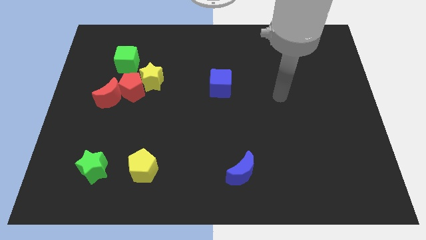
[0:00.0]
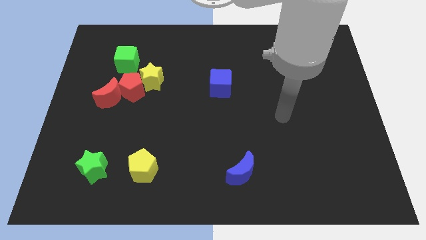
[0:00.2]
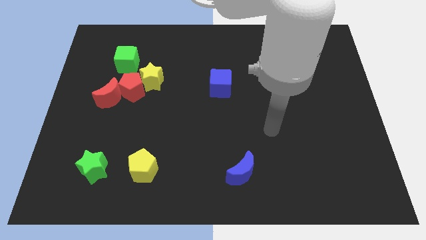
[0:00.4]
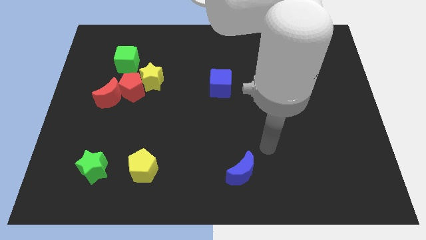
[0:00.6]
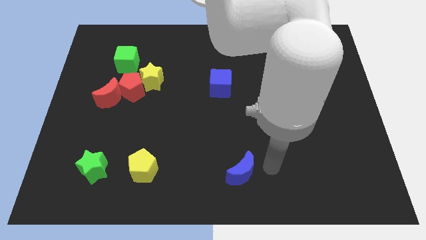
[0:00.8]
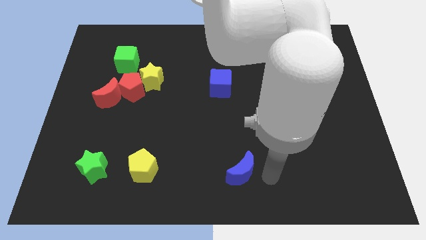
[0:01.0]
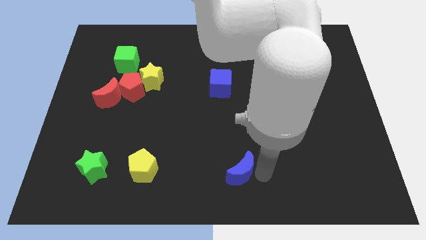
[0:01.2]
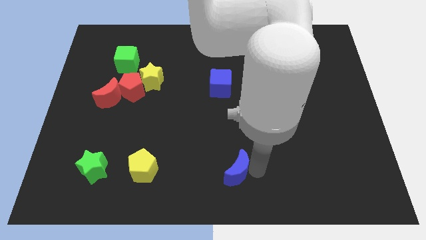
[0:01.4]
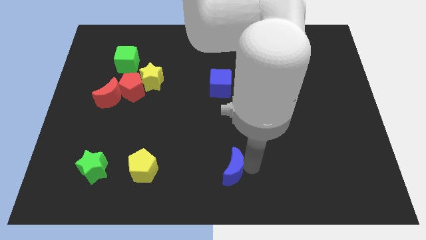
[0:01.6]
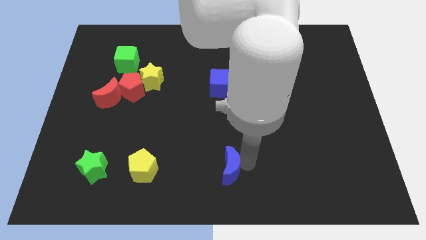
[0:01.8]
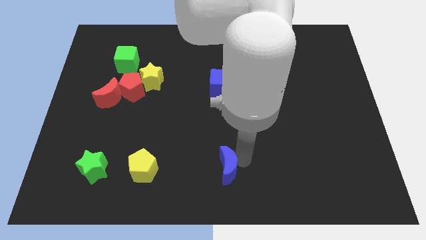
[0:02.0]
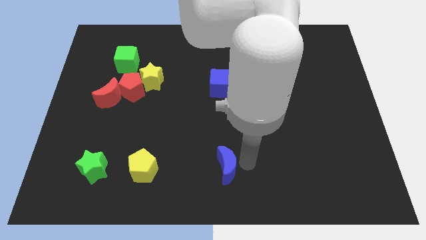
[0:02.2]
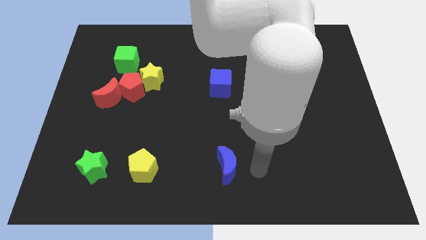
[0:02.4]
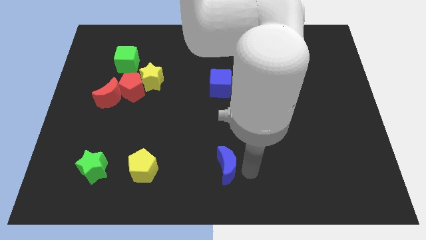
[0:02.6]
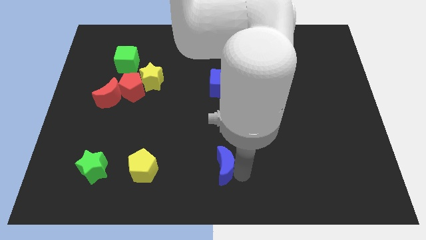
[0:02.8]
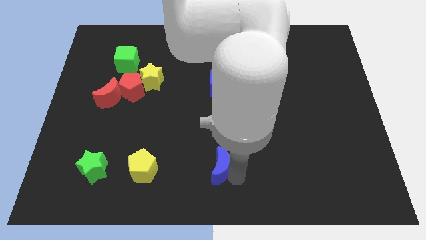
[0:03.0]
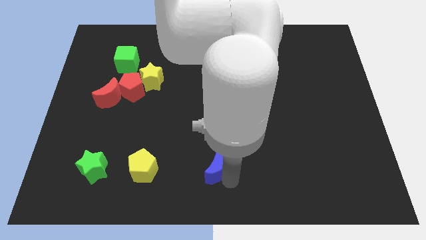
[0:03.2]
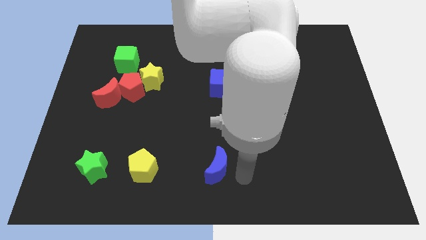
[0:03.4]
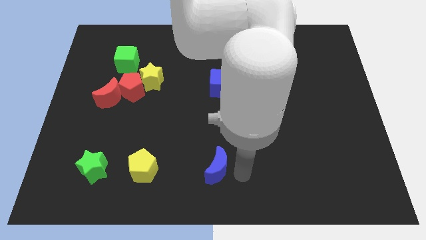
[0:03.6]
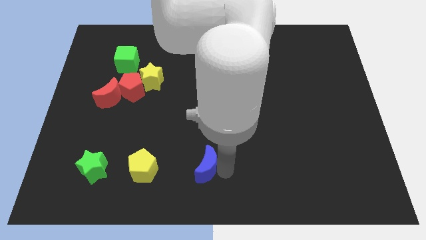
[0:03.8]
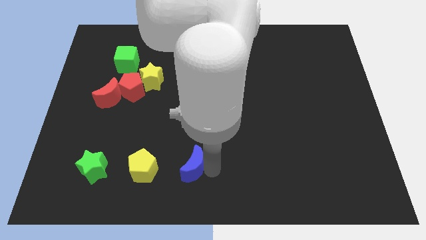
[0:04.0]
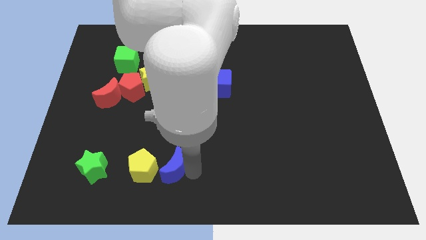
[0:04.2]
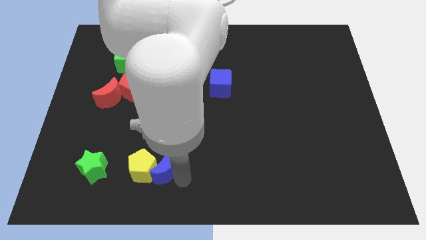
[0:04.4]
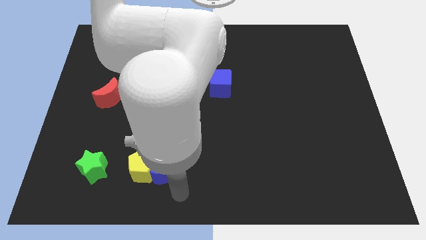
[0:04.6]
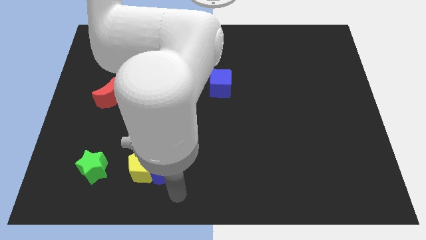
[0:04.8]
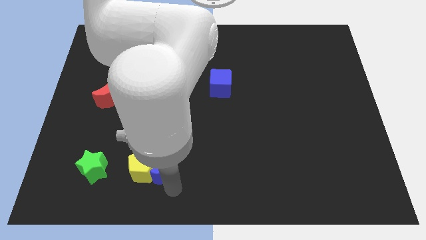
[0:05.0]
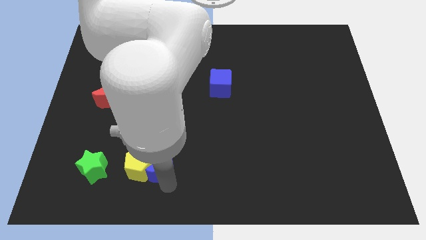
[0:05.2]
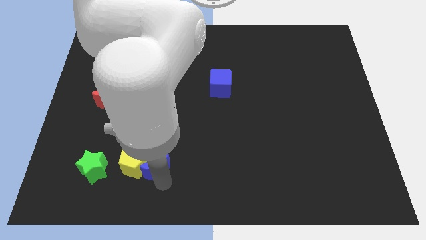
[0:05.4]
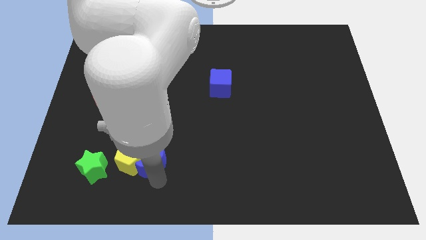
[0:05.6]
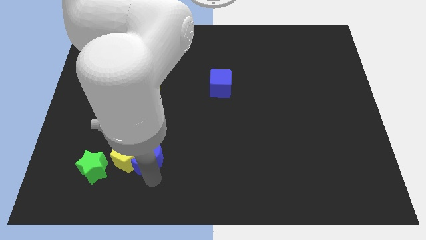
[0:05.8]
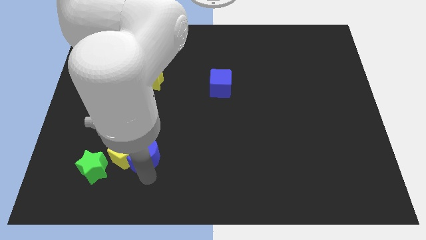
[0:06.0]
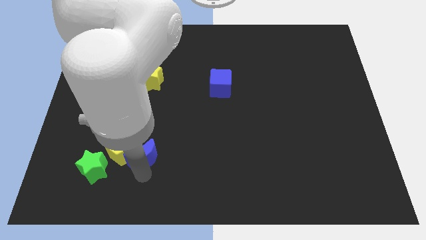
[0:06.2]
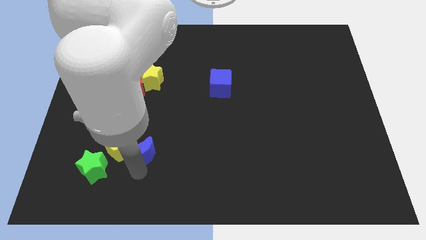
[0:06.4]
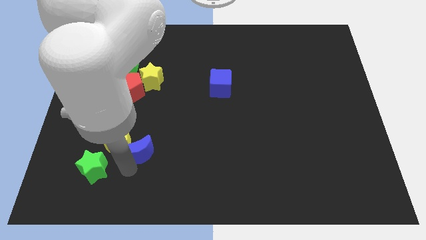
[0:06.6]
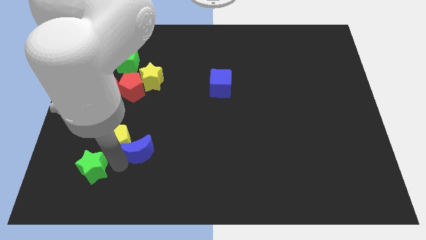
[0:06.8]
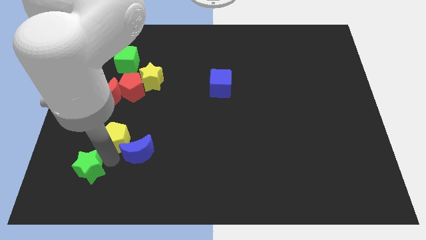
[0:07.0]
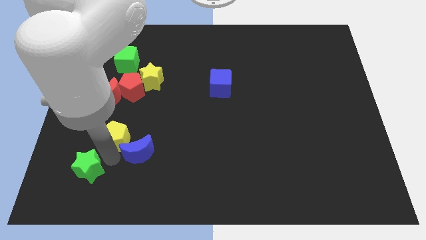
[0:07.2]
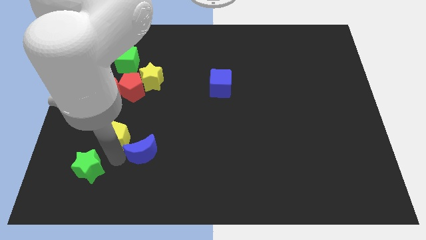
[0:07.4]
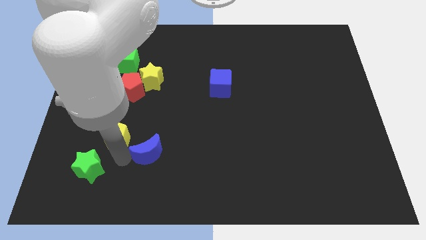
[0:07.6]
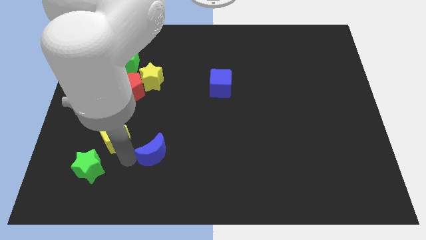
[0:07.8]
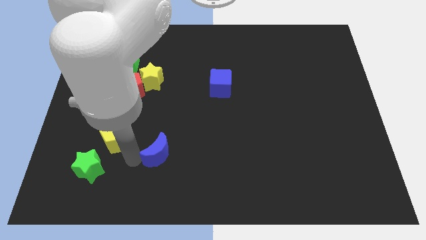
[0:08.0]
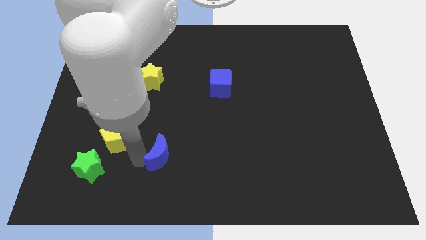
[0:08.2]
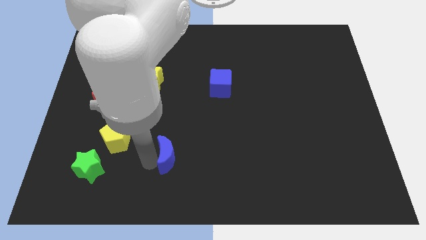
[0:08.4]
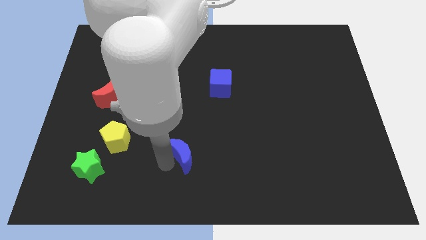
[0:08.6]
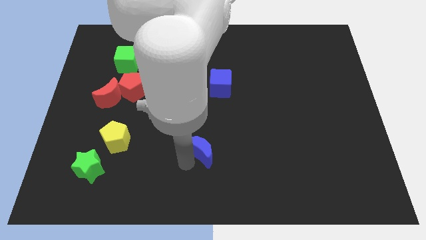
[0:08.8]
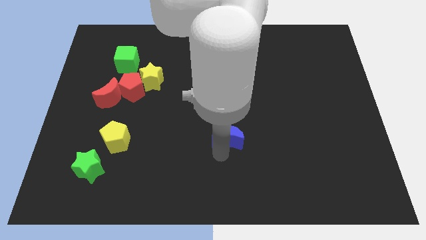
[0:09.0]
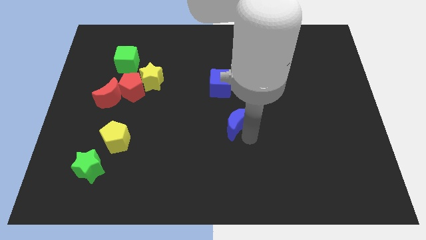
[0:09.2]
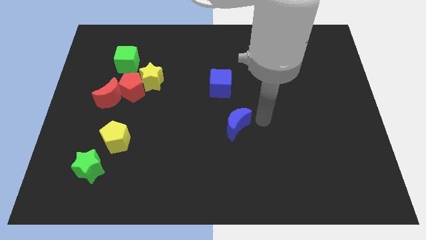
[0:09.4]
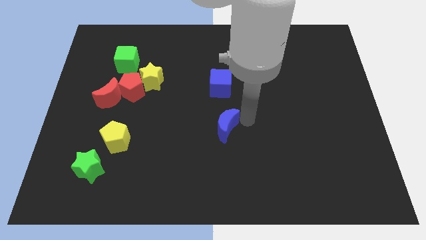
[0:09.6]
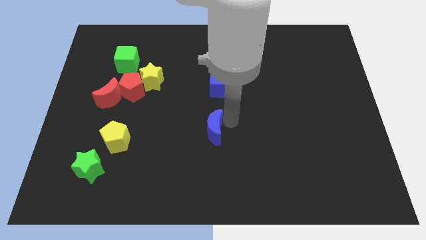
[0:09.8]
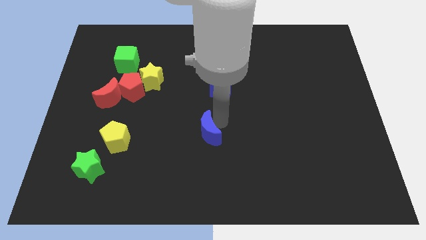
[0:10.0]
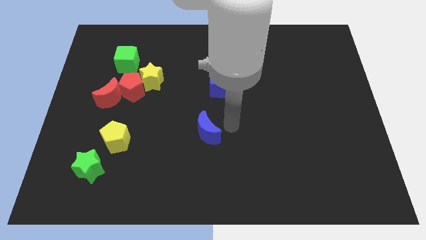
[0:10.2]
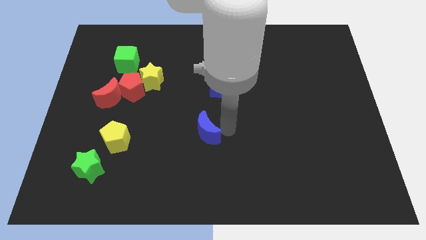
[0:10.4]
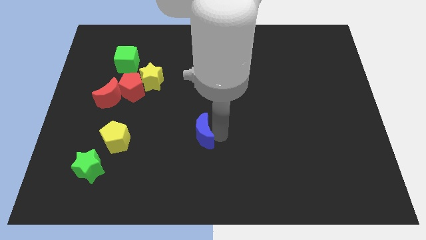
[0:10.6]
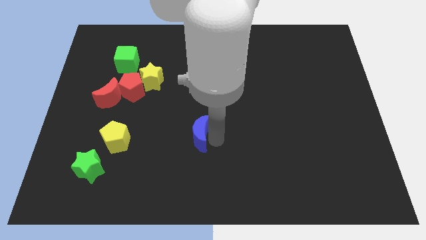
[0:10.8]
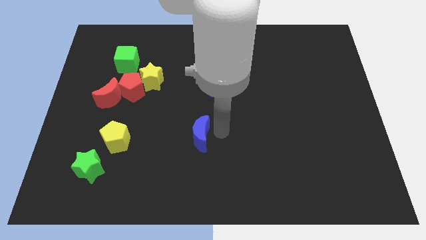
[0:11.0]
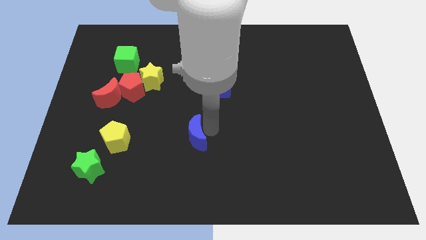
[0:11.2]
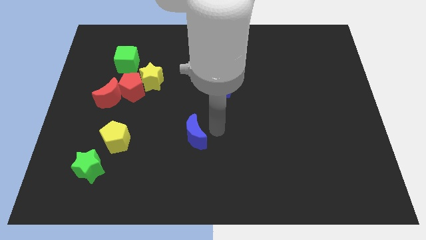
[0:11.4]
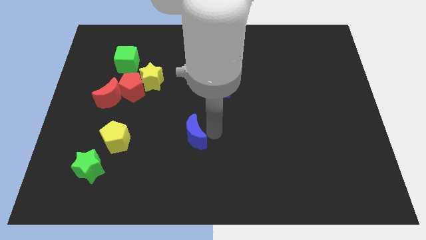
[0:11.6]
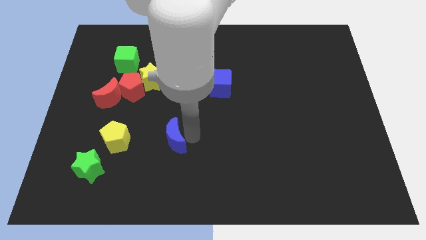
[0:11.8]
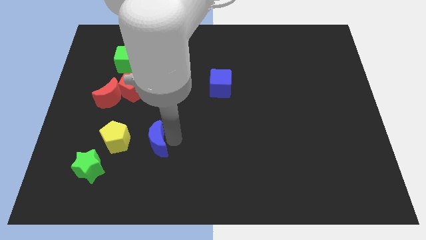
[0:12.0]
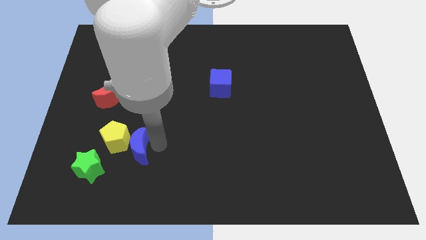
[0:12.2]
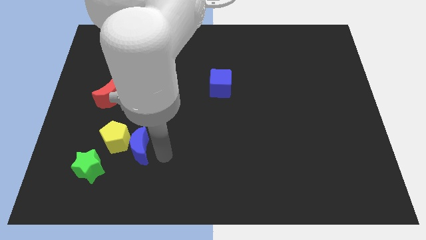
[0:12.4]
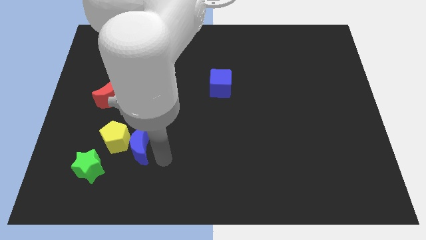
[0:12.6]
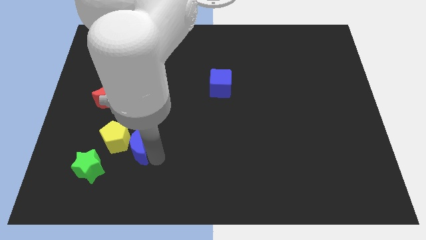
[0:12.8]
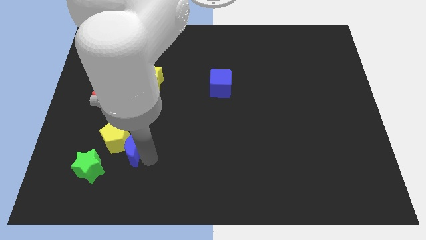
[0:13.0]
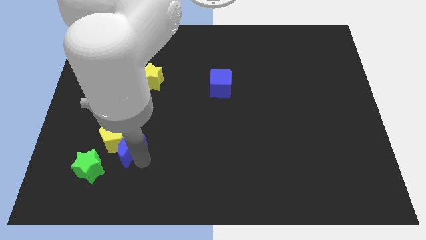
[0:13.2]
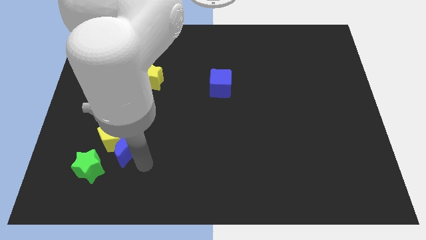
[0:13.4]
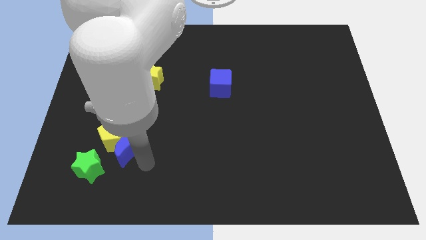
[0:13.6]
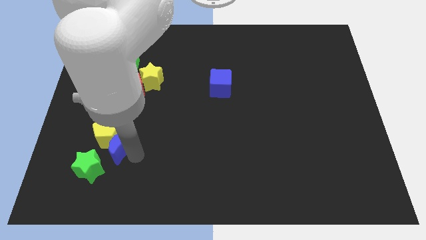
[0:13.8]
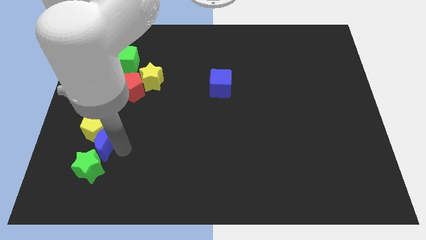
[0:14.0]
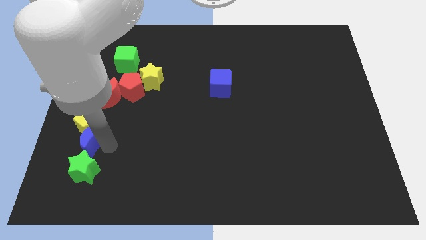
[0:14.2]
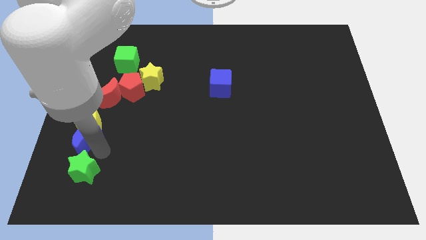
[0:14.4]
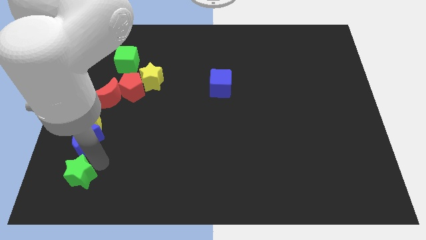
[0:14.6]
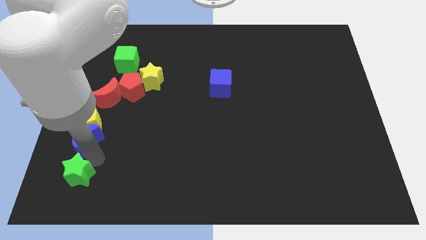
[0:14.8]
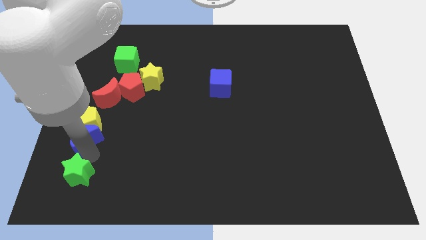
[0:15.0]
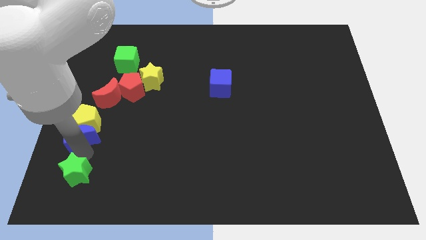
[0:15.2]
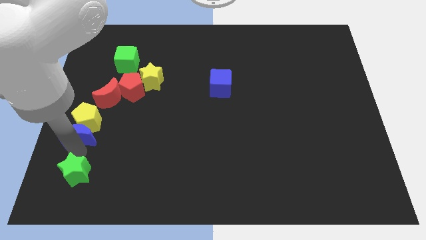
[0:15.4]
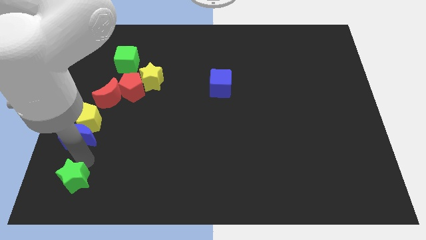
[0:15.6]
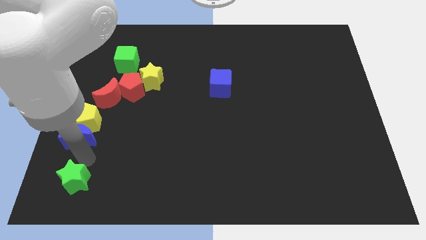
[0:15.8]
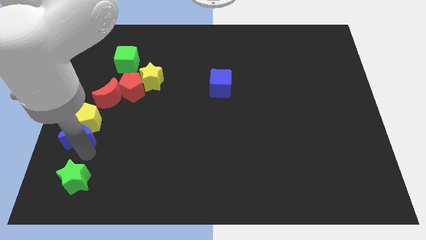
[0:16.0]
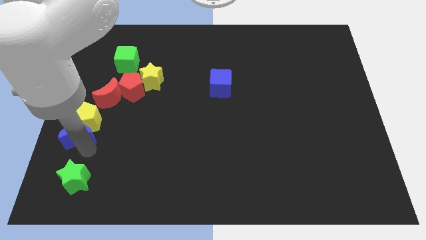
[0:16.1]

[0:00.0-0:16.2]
push the blue moon to the left side of the board
